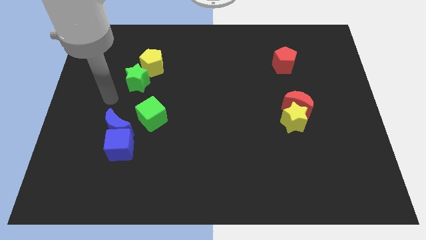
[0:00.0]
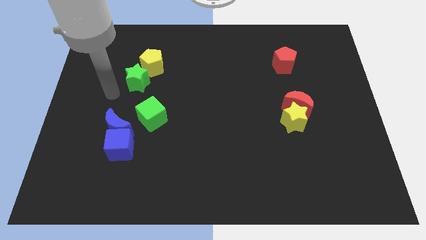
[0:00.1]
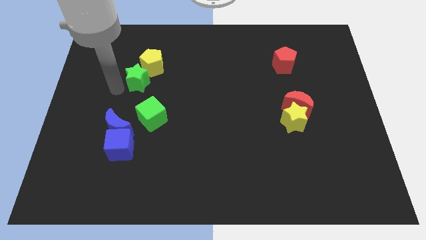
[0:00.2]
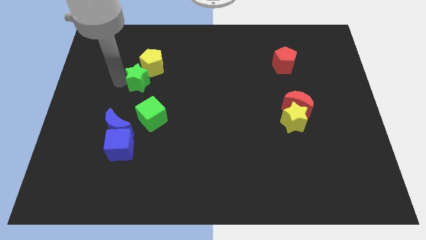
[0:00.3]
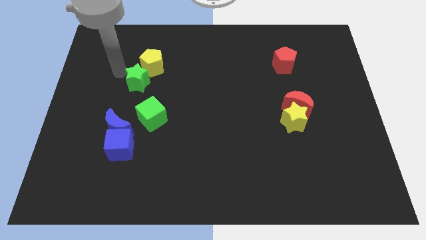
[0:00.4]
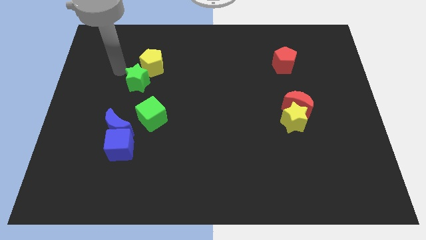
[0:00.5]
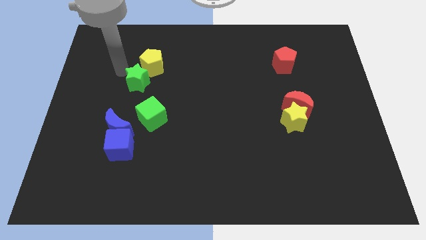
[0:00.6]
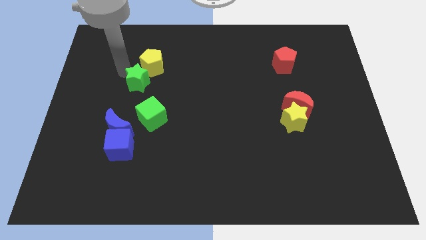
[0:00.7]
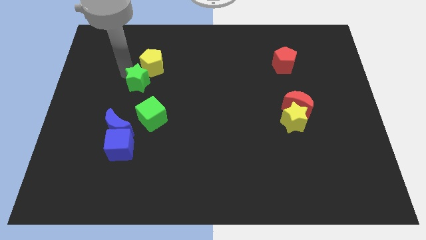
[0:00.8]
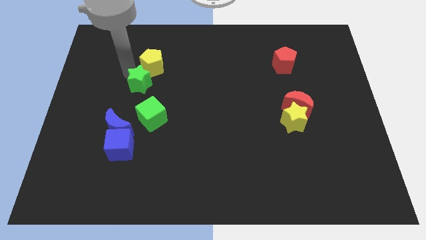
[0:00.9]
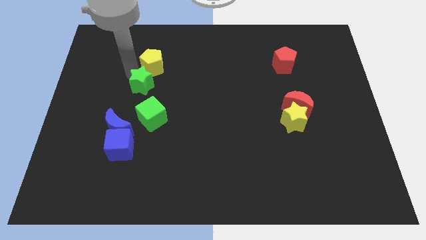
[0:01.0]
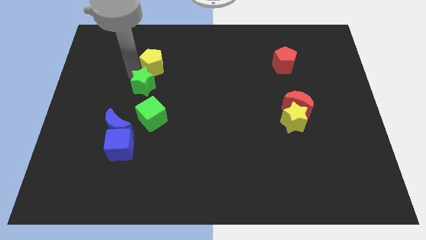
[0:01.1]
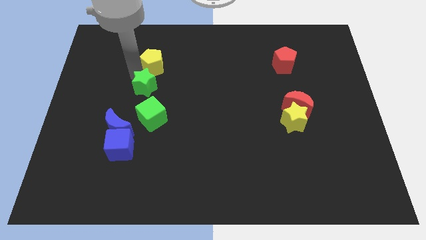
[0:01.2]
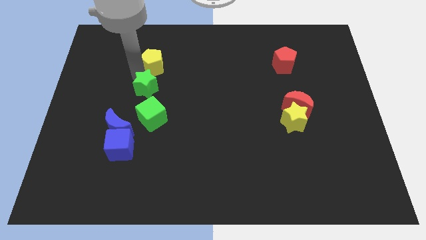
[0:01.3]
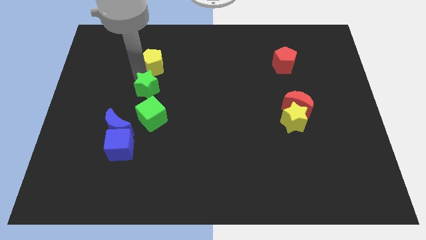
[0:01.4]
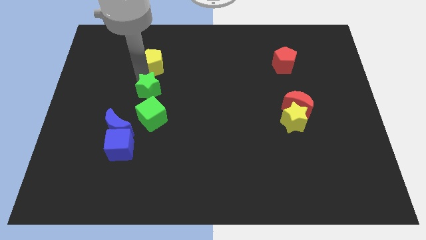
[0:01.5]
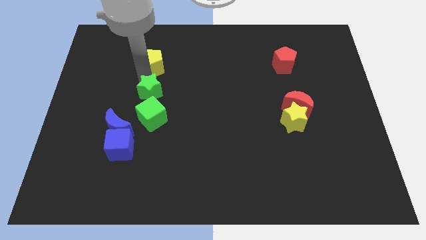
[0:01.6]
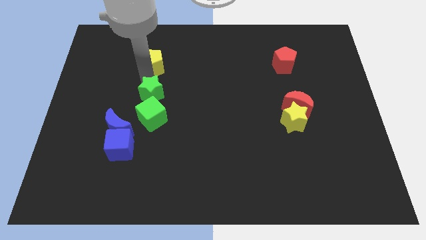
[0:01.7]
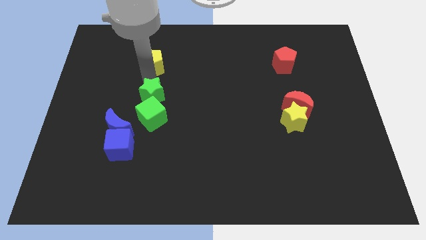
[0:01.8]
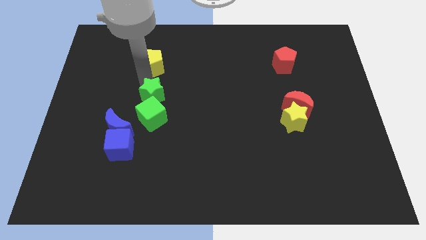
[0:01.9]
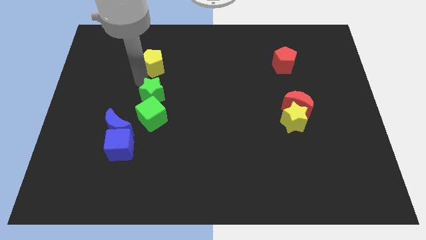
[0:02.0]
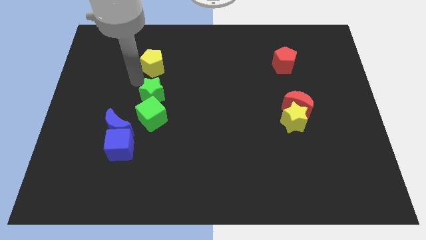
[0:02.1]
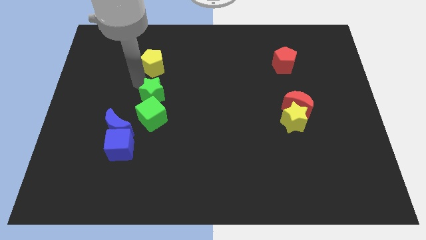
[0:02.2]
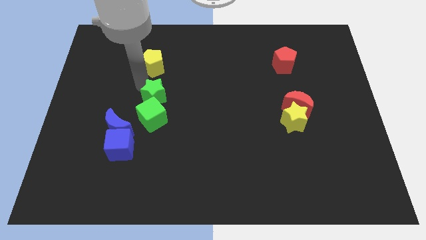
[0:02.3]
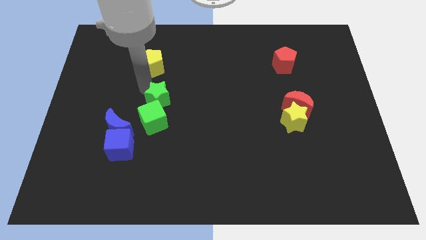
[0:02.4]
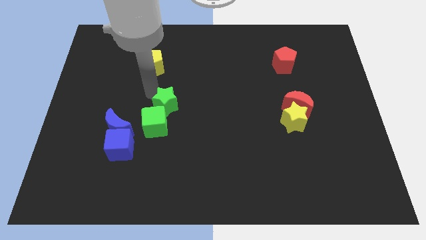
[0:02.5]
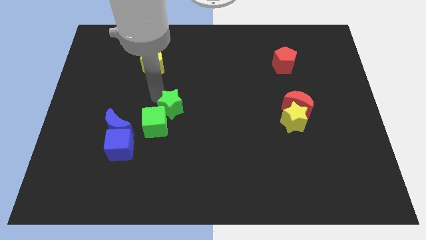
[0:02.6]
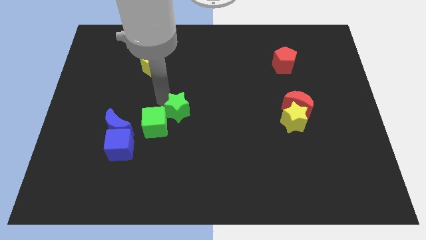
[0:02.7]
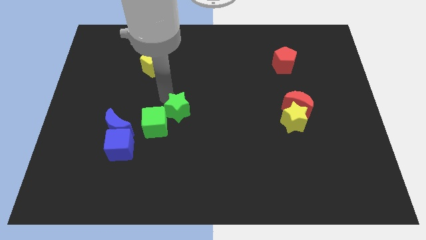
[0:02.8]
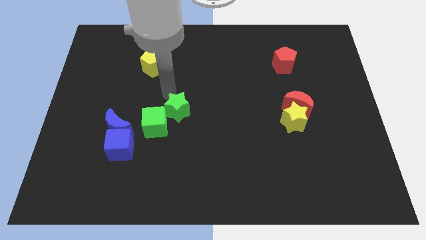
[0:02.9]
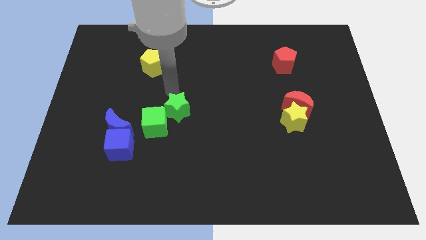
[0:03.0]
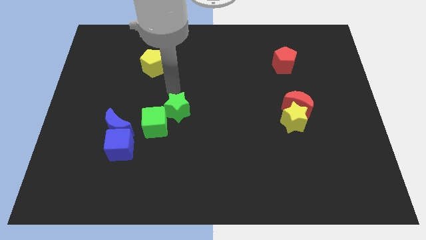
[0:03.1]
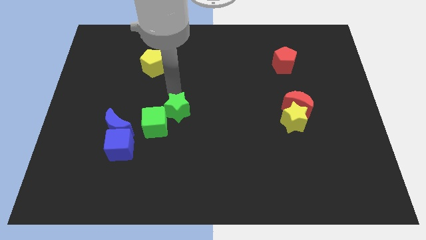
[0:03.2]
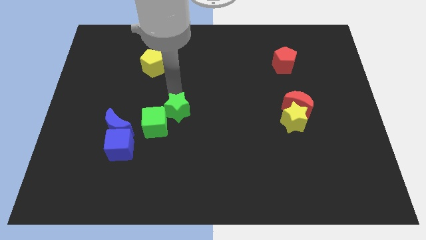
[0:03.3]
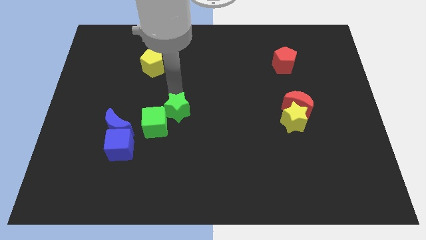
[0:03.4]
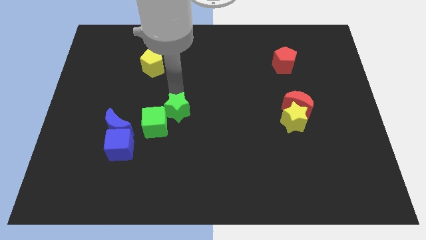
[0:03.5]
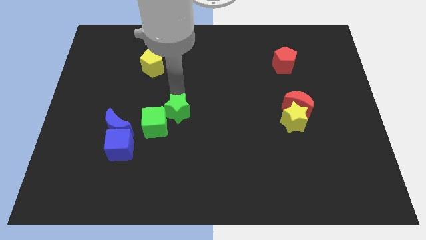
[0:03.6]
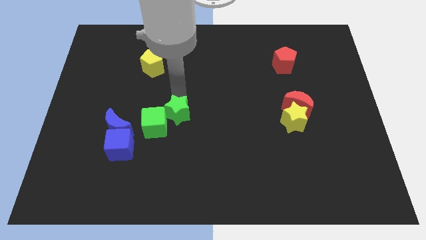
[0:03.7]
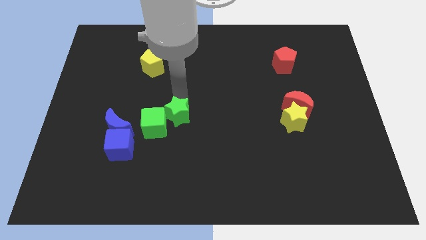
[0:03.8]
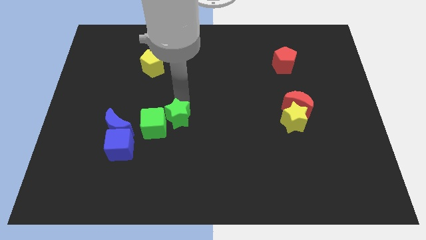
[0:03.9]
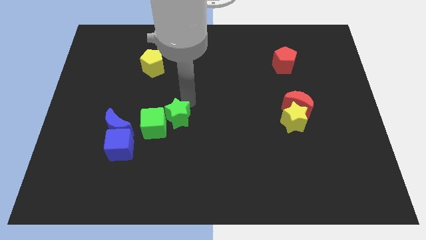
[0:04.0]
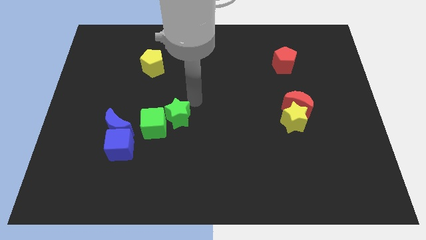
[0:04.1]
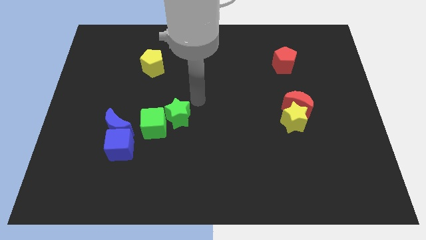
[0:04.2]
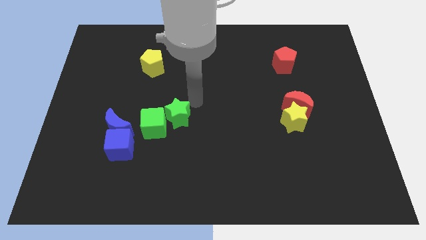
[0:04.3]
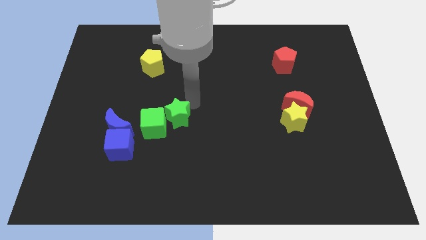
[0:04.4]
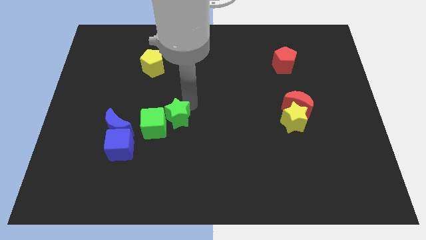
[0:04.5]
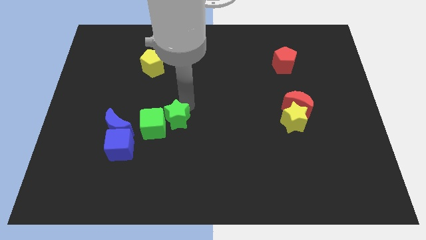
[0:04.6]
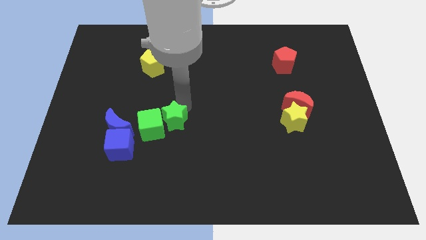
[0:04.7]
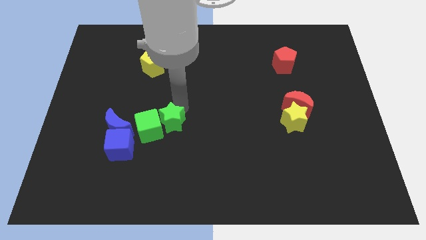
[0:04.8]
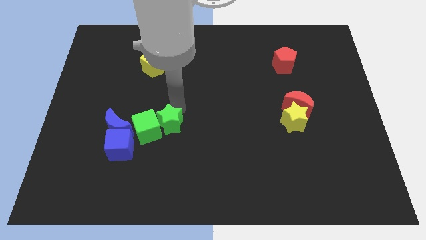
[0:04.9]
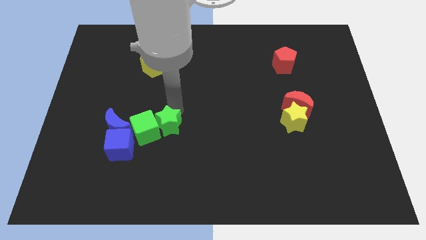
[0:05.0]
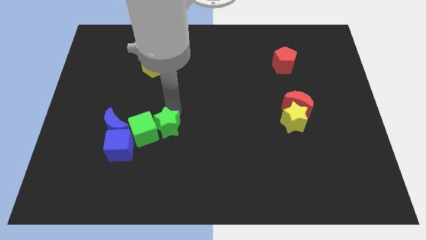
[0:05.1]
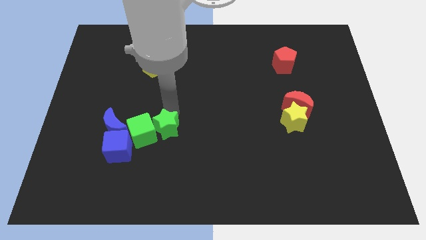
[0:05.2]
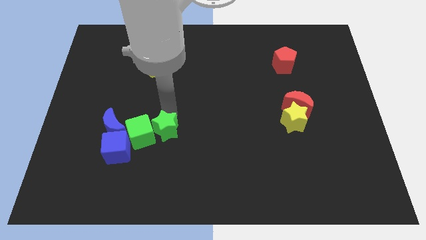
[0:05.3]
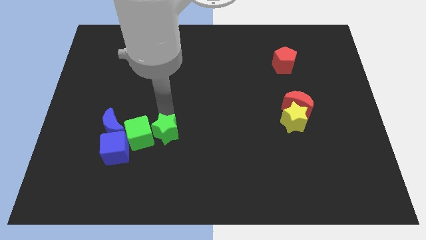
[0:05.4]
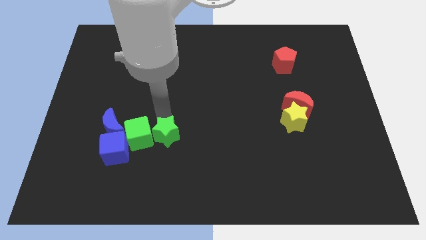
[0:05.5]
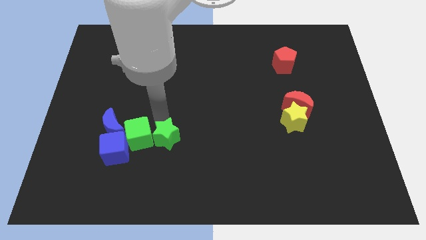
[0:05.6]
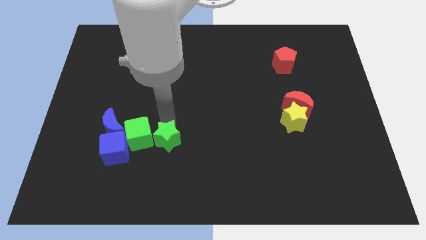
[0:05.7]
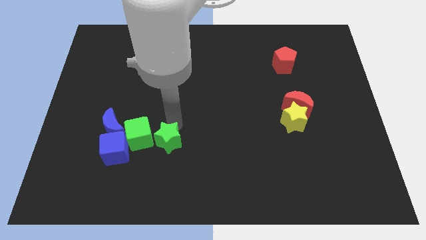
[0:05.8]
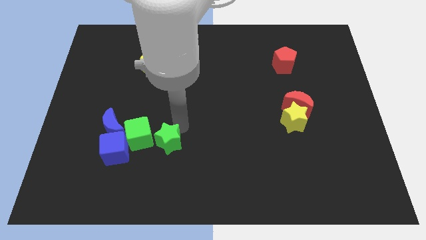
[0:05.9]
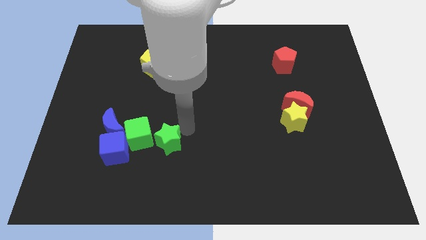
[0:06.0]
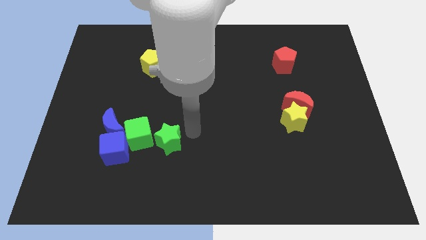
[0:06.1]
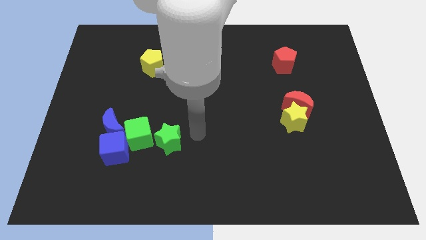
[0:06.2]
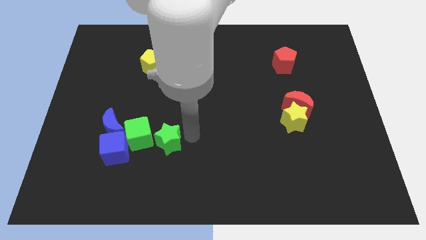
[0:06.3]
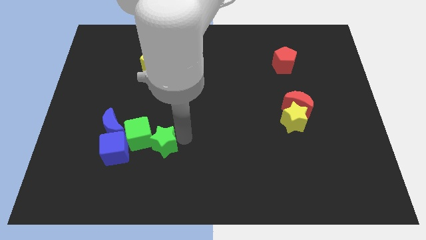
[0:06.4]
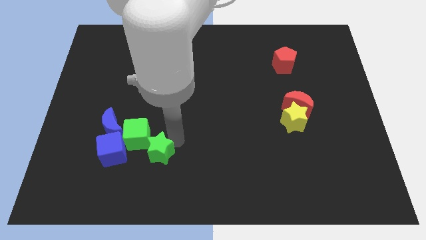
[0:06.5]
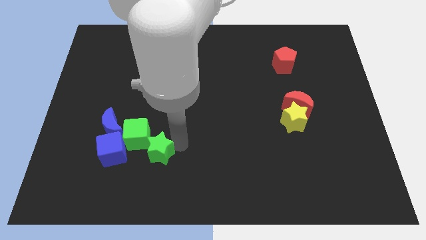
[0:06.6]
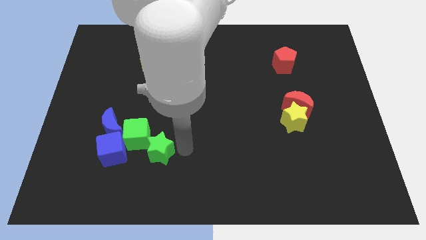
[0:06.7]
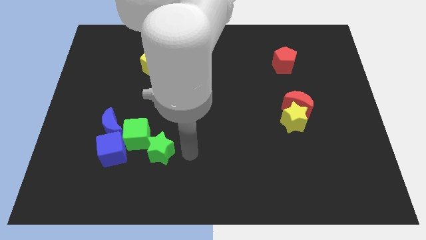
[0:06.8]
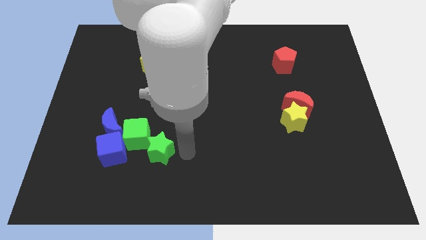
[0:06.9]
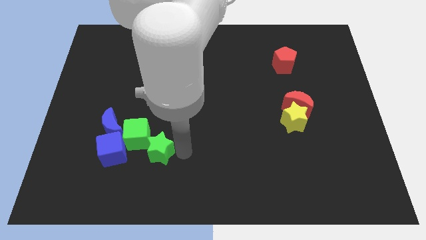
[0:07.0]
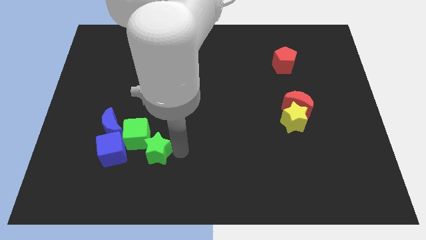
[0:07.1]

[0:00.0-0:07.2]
push the green star to the bottom right side of the blue moon
